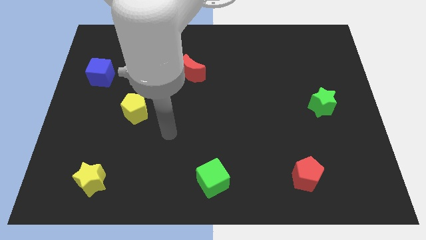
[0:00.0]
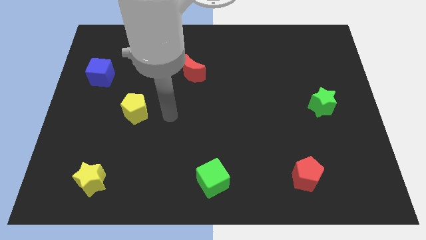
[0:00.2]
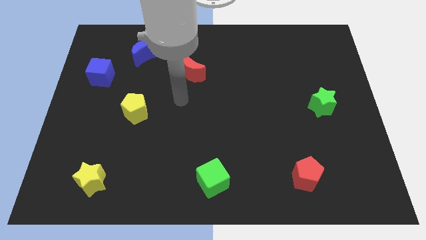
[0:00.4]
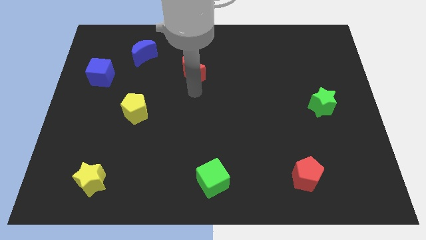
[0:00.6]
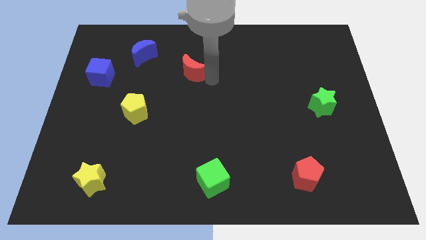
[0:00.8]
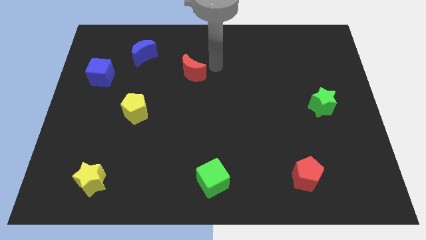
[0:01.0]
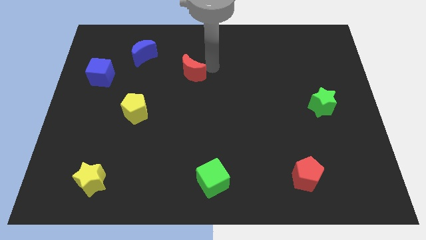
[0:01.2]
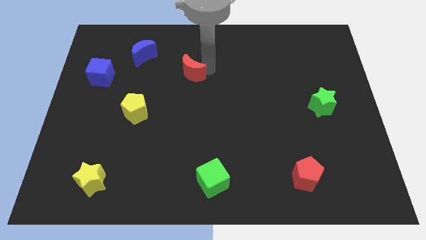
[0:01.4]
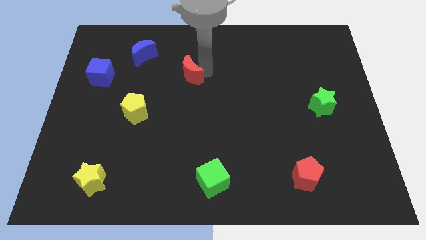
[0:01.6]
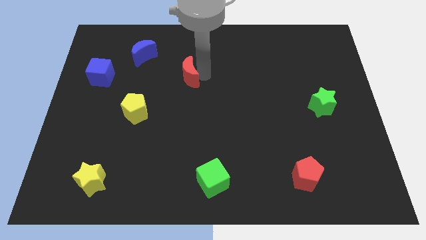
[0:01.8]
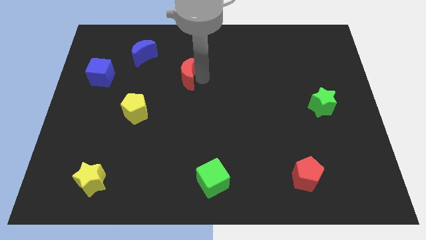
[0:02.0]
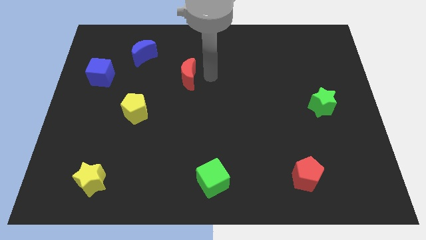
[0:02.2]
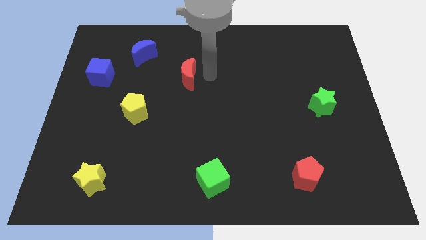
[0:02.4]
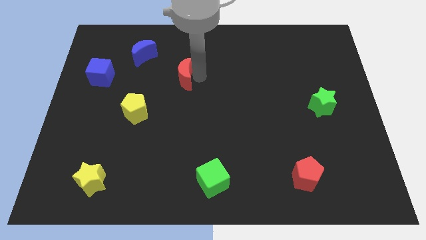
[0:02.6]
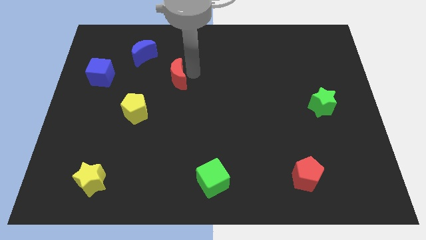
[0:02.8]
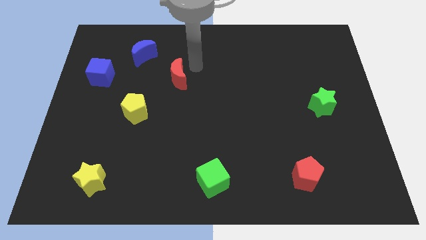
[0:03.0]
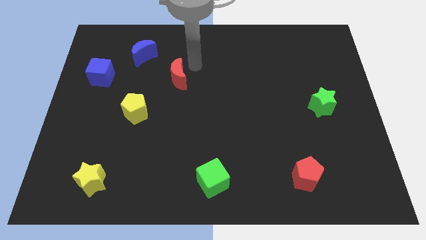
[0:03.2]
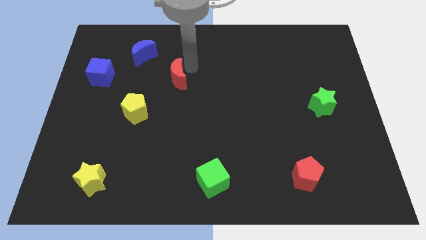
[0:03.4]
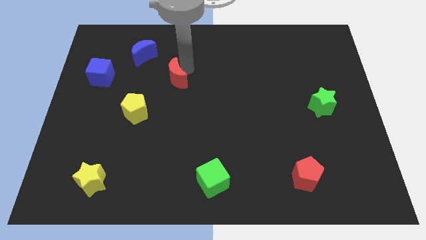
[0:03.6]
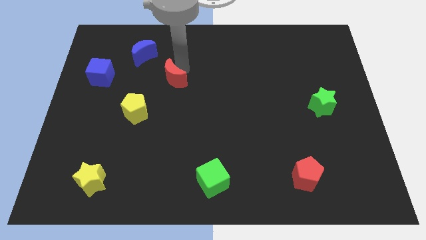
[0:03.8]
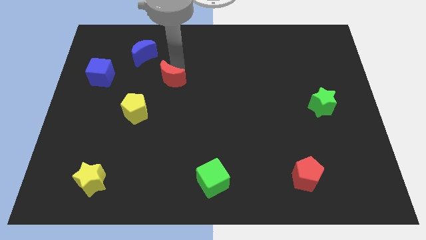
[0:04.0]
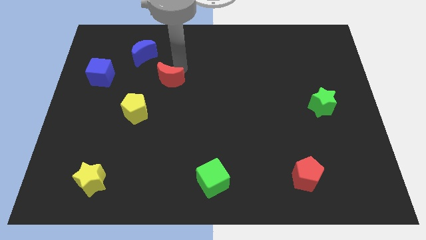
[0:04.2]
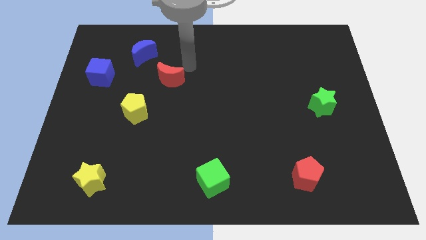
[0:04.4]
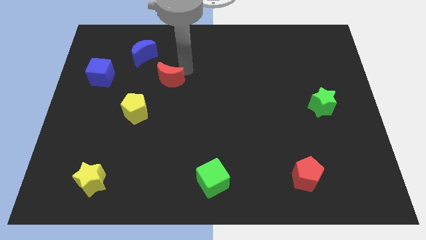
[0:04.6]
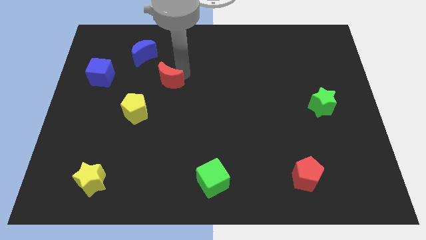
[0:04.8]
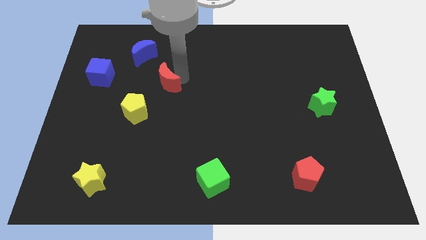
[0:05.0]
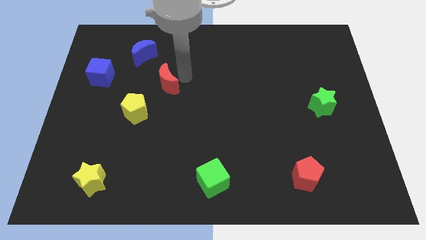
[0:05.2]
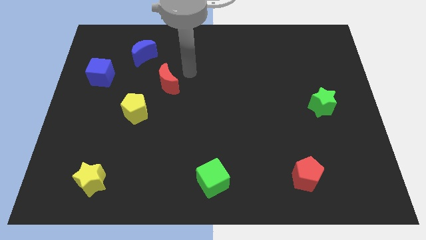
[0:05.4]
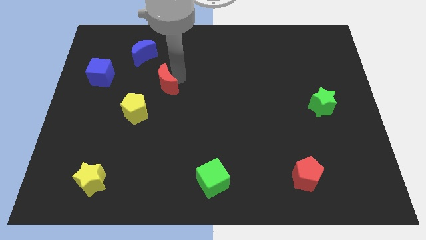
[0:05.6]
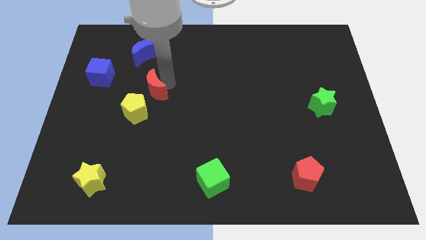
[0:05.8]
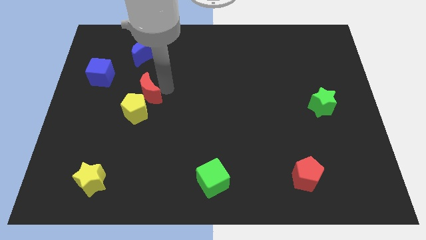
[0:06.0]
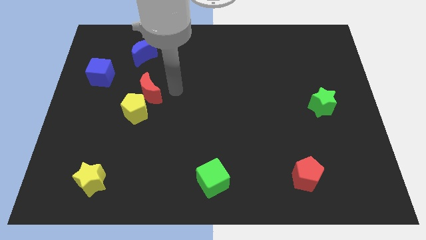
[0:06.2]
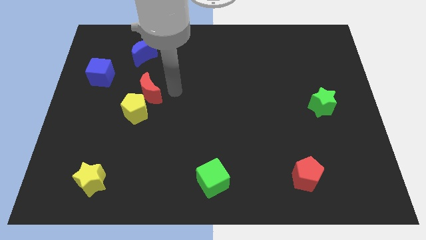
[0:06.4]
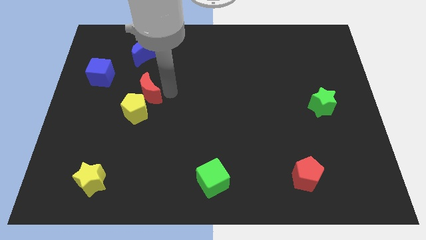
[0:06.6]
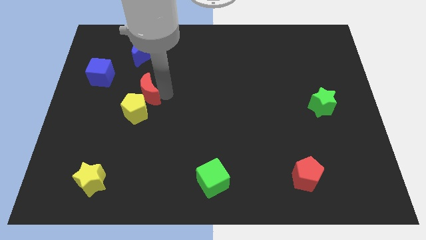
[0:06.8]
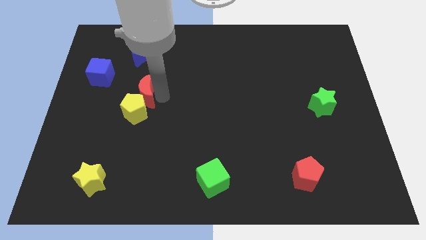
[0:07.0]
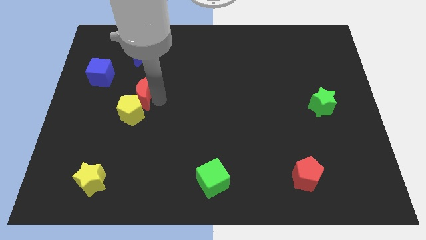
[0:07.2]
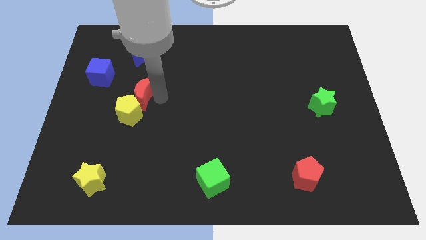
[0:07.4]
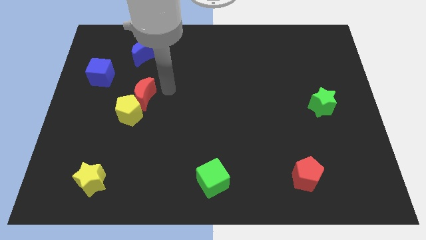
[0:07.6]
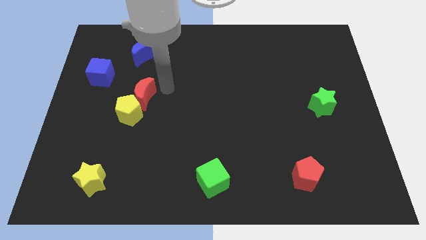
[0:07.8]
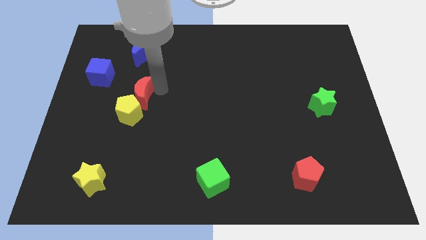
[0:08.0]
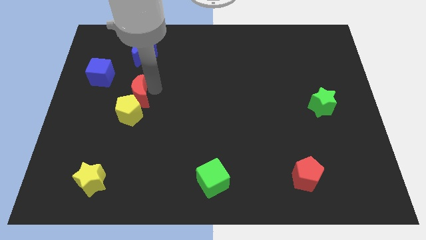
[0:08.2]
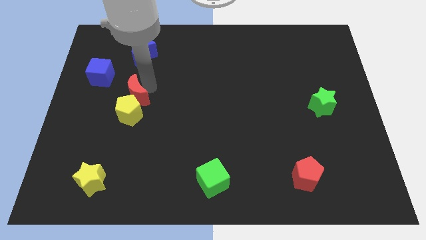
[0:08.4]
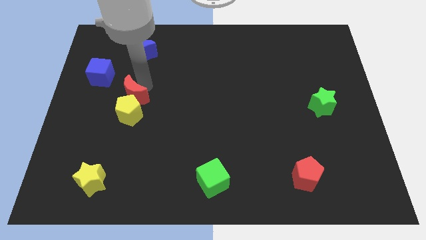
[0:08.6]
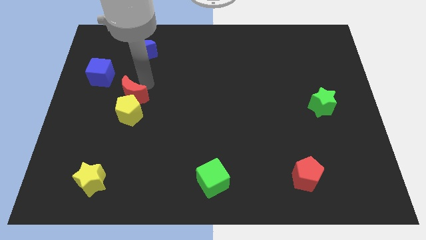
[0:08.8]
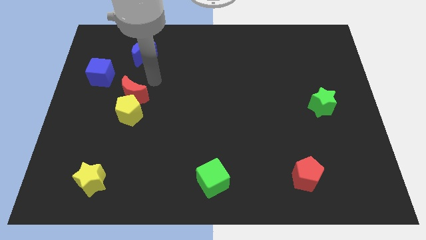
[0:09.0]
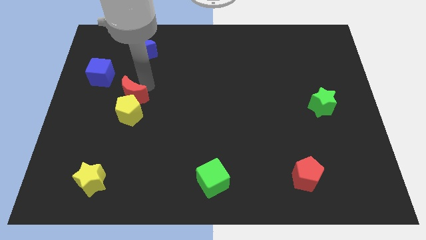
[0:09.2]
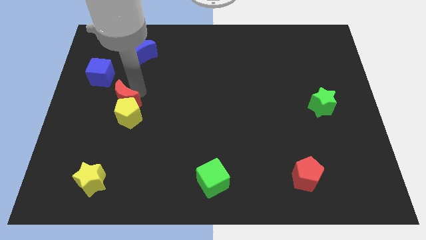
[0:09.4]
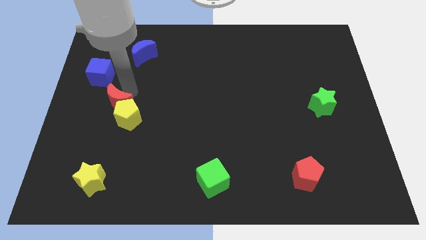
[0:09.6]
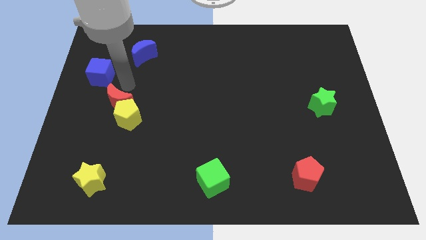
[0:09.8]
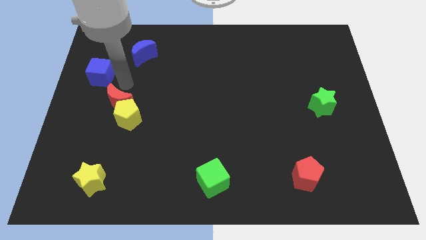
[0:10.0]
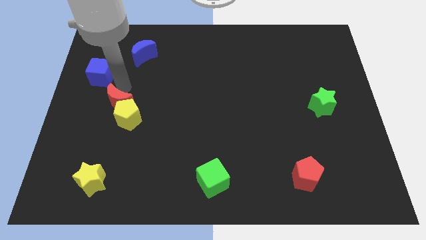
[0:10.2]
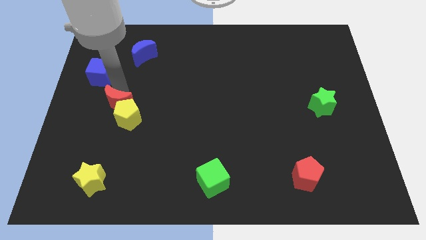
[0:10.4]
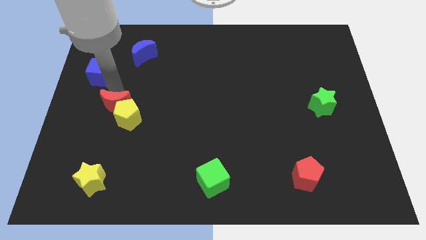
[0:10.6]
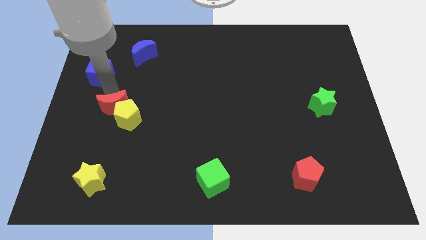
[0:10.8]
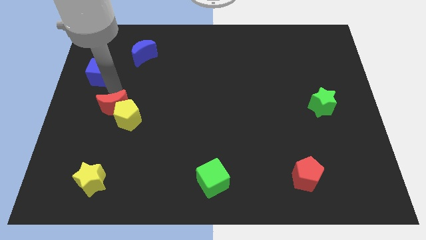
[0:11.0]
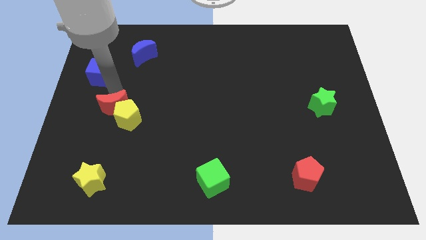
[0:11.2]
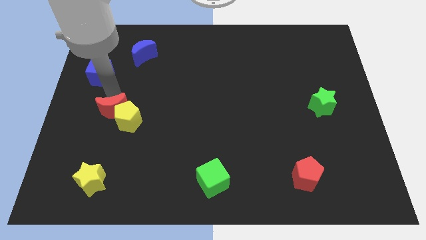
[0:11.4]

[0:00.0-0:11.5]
slide the red moon down and then to the left

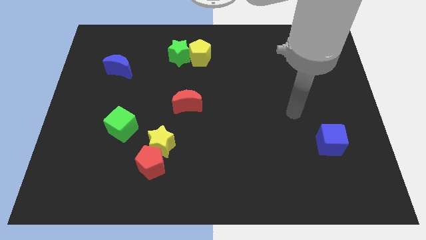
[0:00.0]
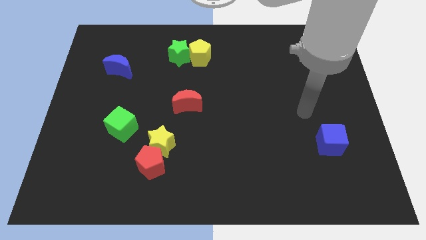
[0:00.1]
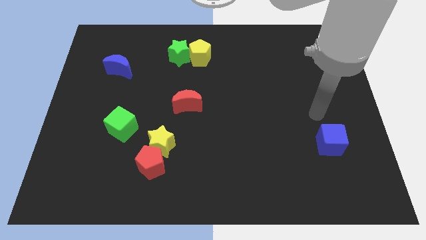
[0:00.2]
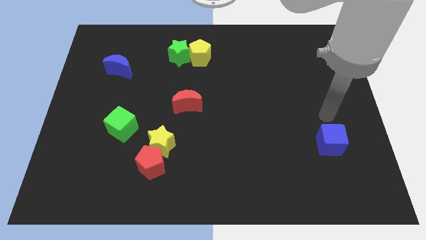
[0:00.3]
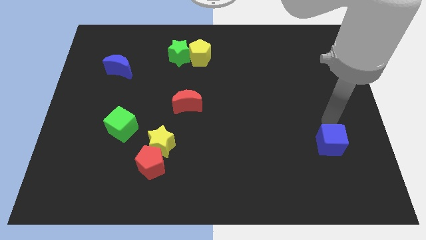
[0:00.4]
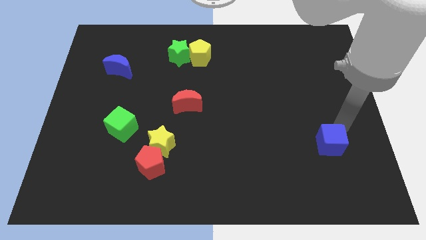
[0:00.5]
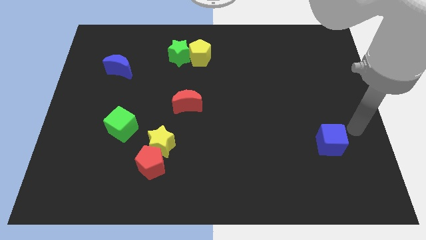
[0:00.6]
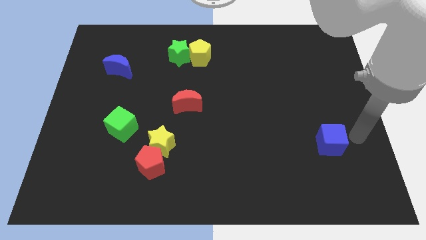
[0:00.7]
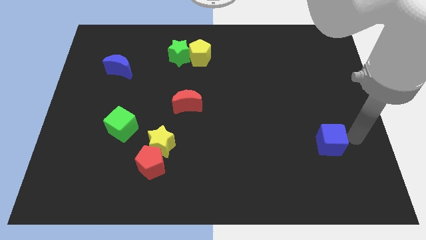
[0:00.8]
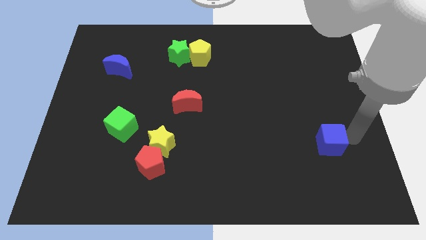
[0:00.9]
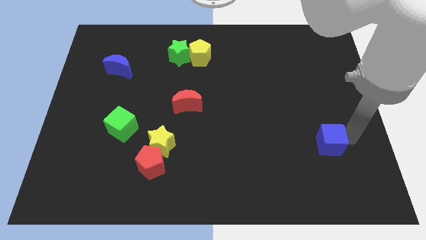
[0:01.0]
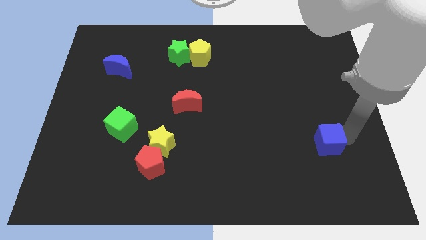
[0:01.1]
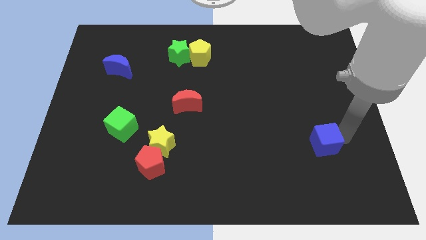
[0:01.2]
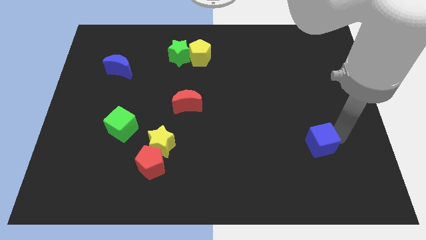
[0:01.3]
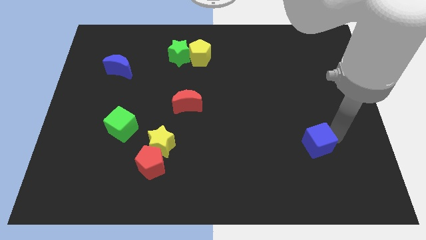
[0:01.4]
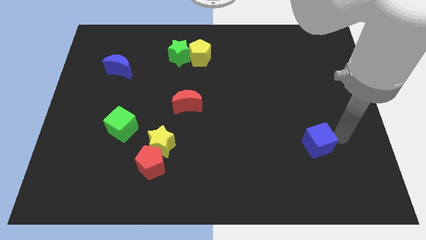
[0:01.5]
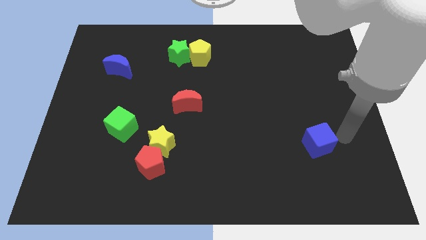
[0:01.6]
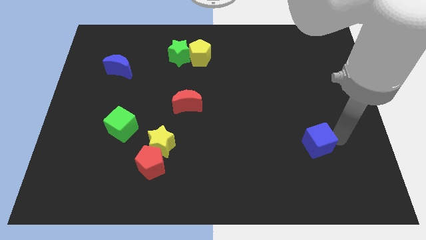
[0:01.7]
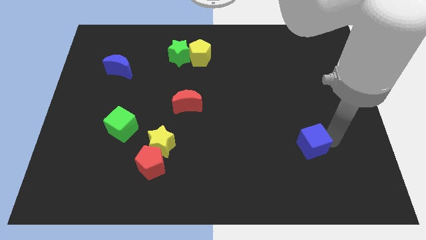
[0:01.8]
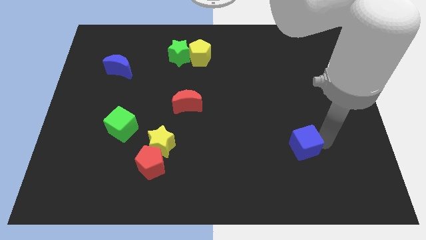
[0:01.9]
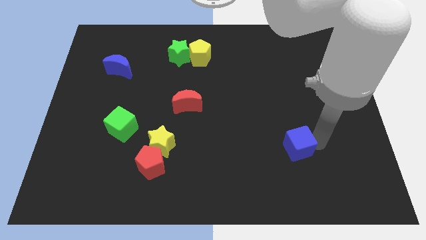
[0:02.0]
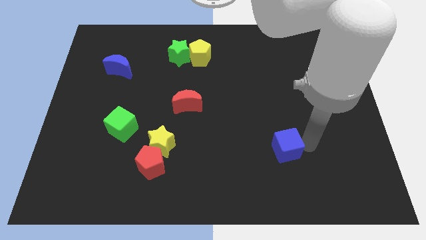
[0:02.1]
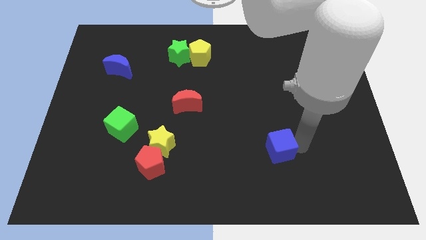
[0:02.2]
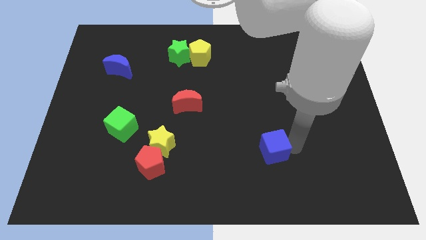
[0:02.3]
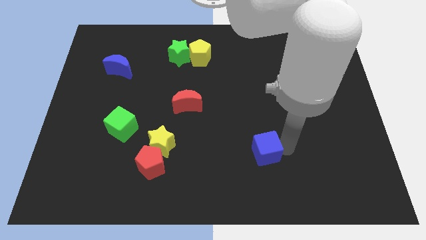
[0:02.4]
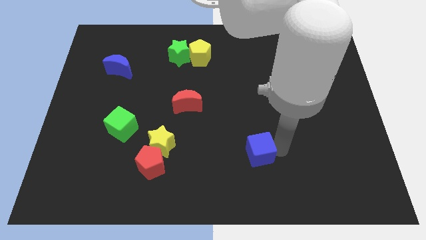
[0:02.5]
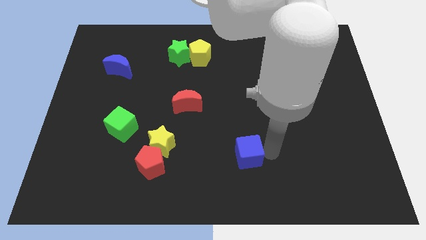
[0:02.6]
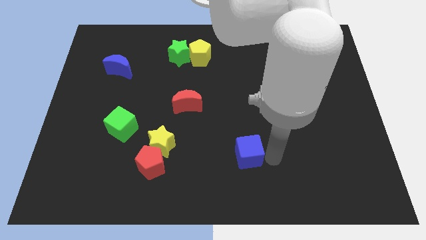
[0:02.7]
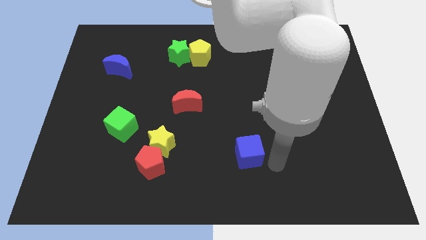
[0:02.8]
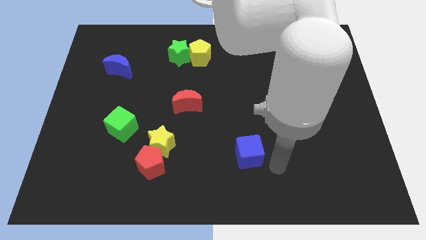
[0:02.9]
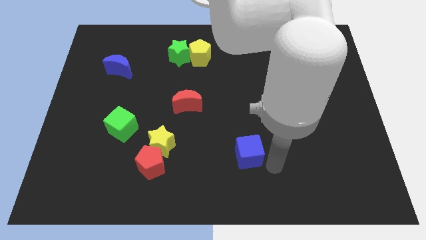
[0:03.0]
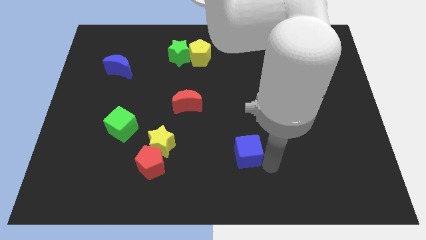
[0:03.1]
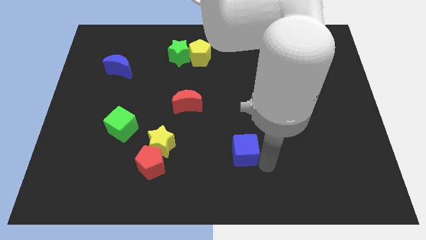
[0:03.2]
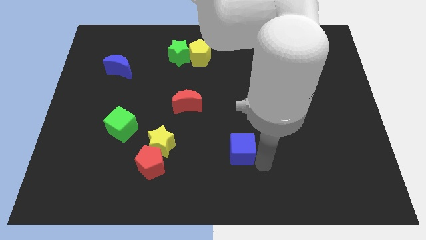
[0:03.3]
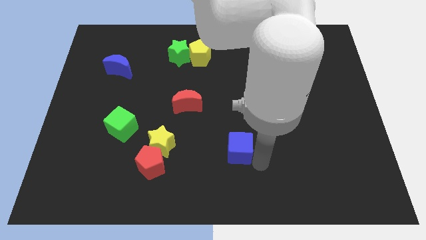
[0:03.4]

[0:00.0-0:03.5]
slide the blue cube left
